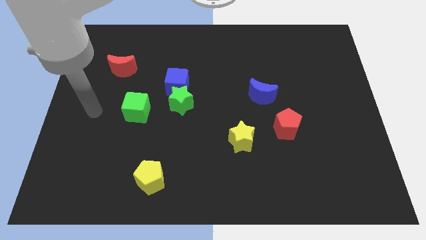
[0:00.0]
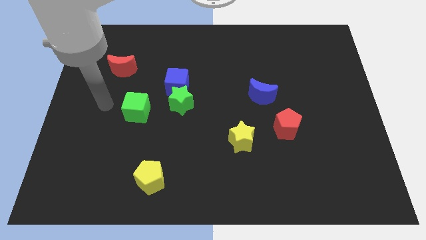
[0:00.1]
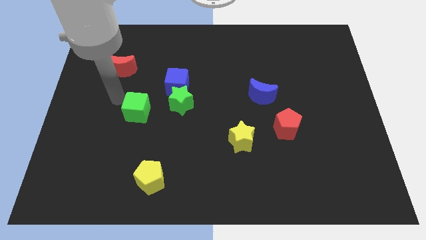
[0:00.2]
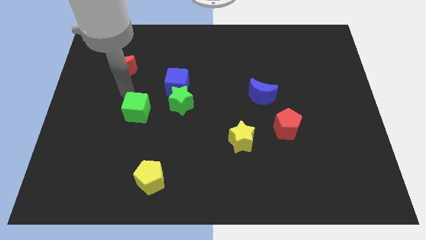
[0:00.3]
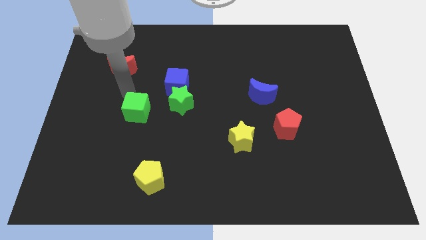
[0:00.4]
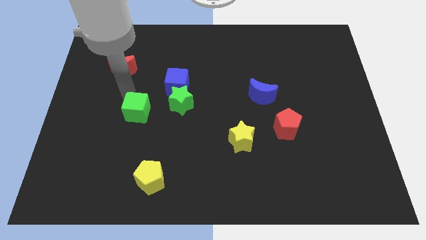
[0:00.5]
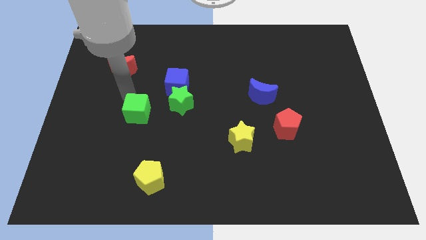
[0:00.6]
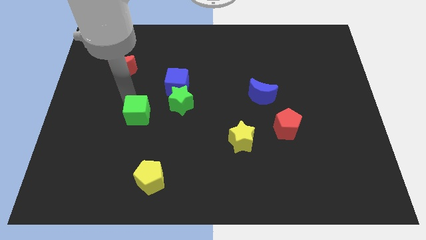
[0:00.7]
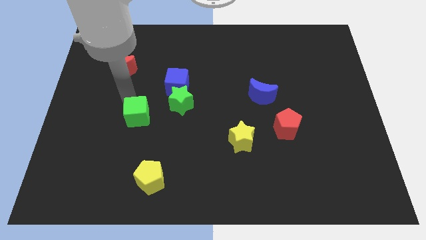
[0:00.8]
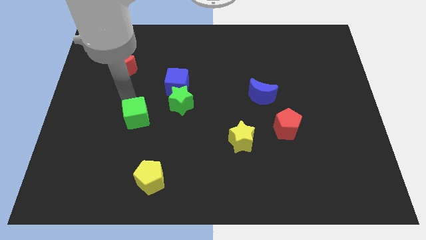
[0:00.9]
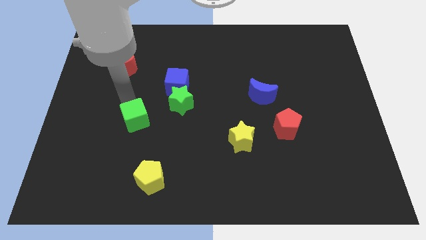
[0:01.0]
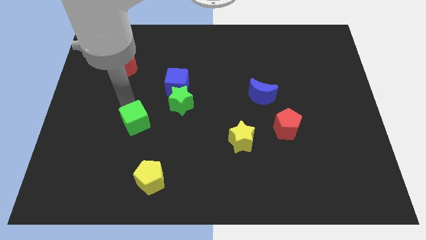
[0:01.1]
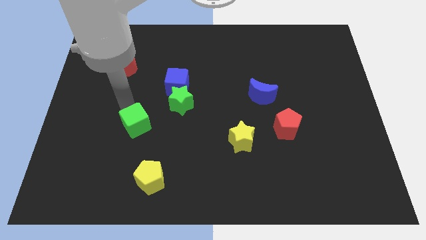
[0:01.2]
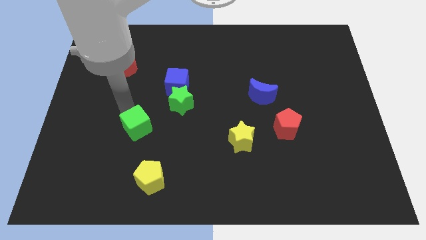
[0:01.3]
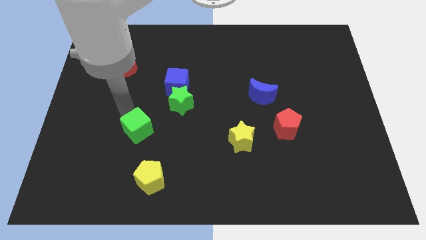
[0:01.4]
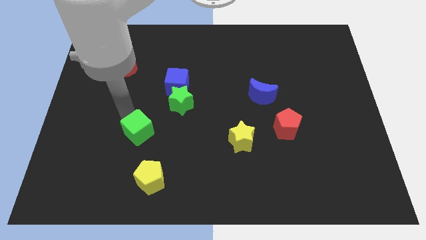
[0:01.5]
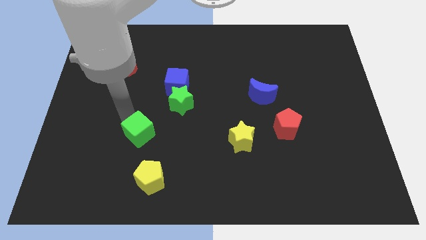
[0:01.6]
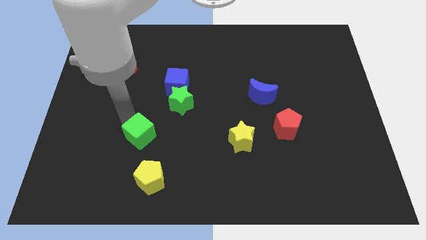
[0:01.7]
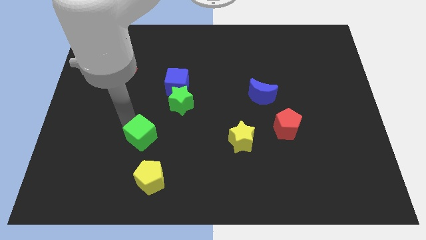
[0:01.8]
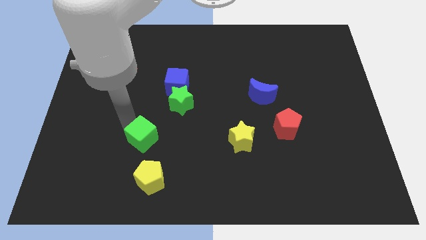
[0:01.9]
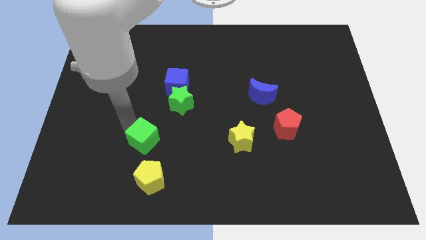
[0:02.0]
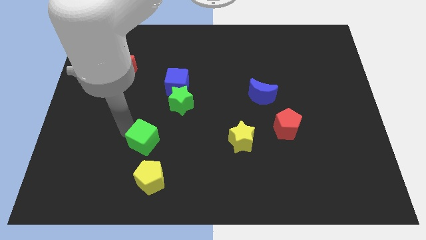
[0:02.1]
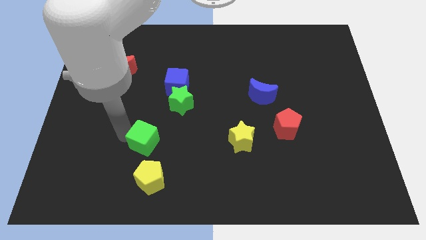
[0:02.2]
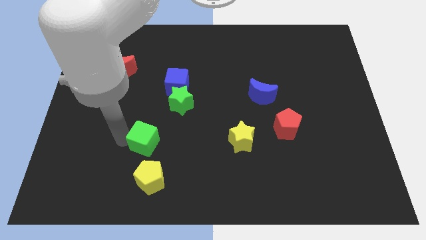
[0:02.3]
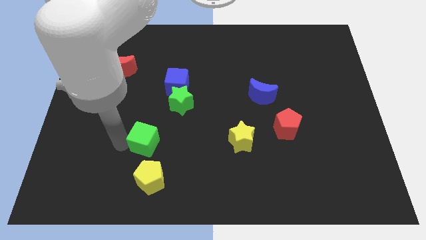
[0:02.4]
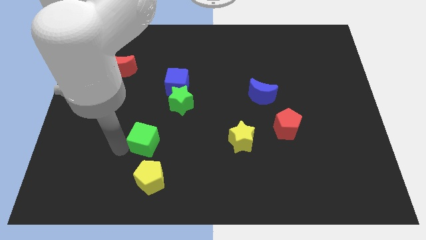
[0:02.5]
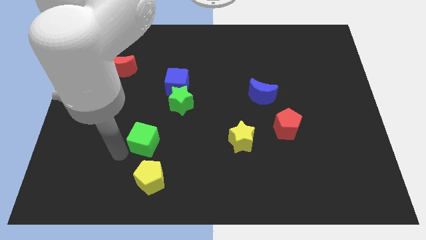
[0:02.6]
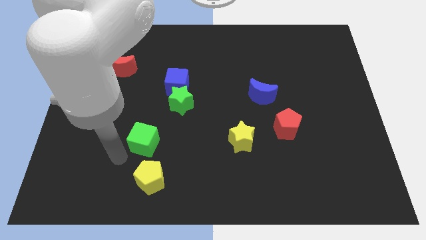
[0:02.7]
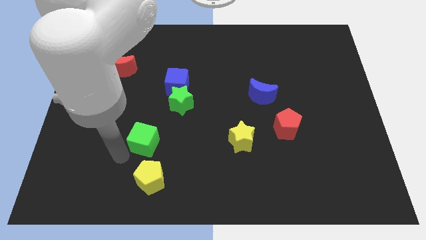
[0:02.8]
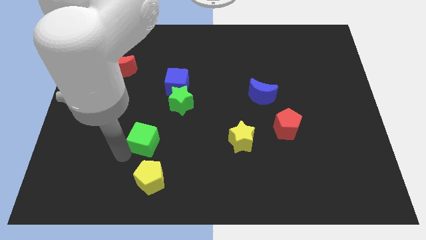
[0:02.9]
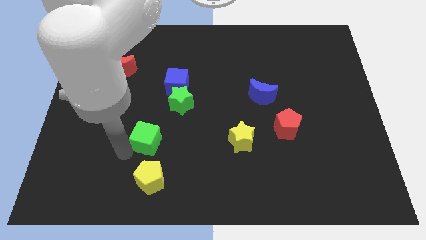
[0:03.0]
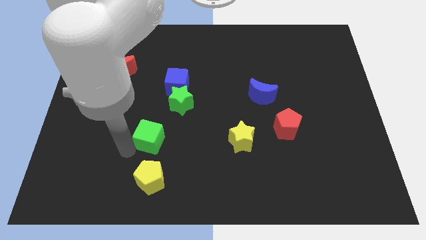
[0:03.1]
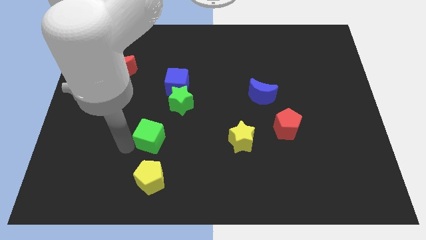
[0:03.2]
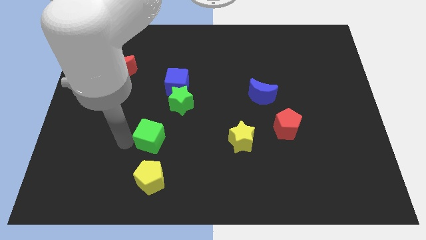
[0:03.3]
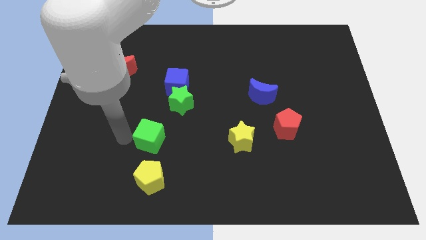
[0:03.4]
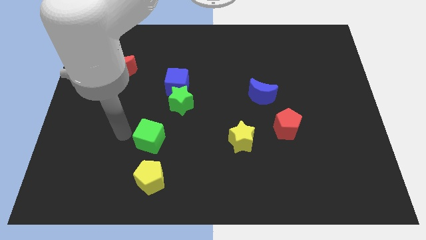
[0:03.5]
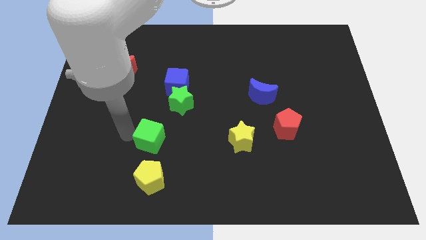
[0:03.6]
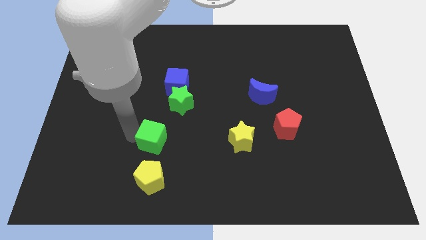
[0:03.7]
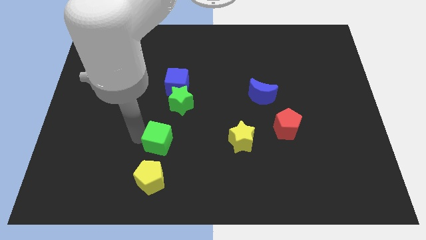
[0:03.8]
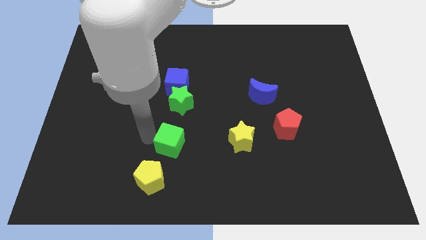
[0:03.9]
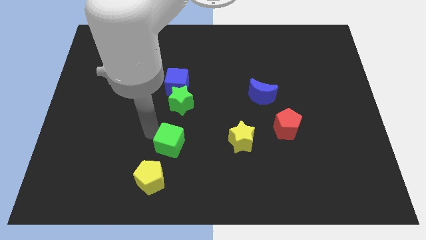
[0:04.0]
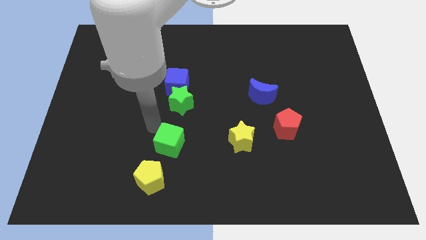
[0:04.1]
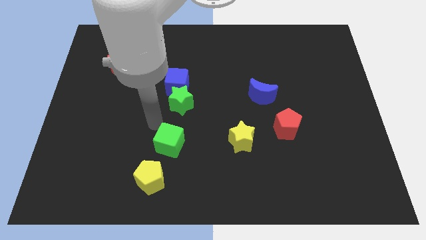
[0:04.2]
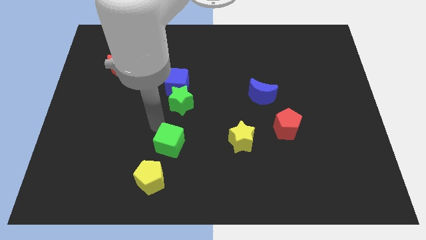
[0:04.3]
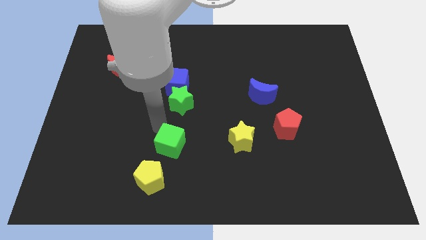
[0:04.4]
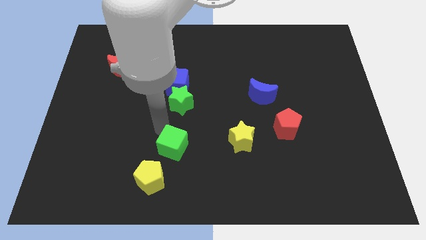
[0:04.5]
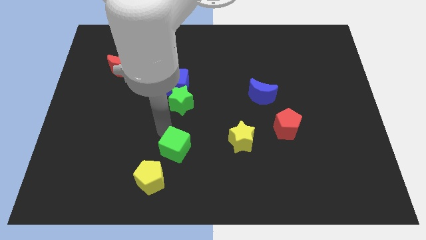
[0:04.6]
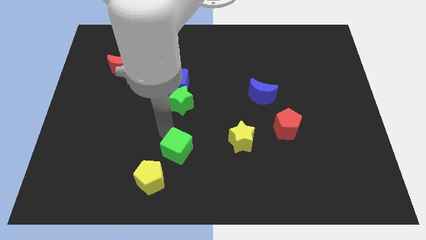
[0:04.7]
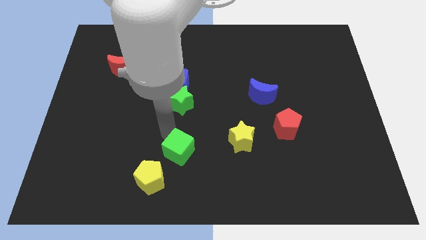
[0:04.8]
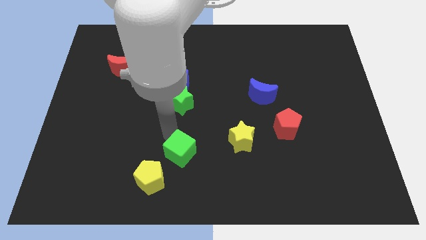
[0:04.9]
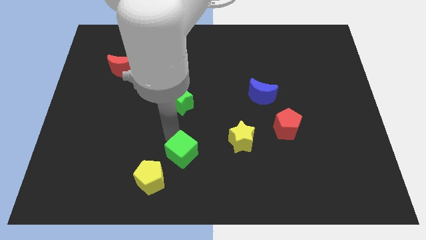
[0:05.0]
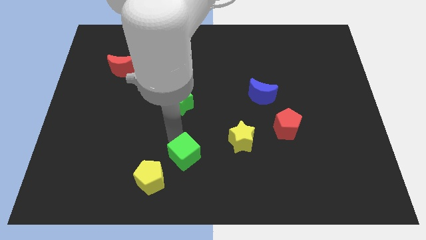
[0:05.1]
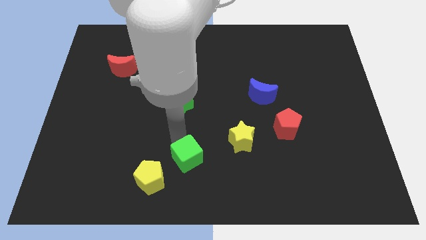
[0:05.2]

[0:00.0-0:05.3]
slide the green cube to the bottom side

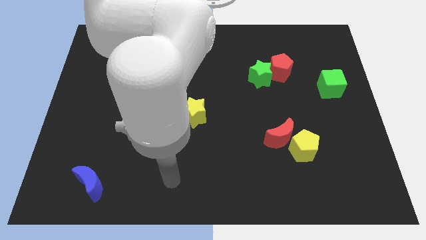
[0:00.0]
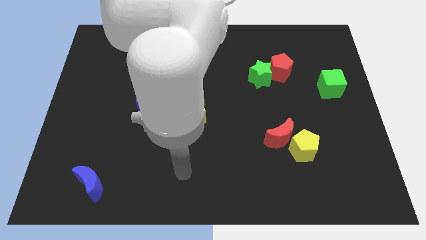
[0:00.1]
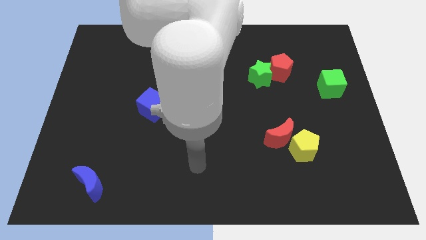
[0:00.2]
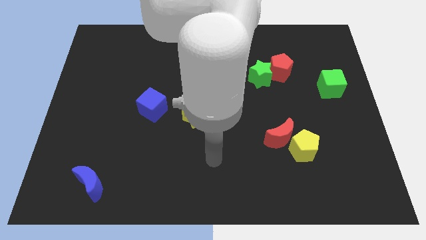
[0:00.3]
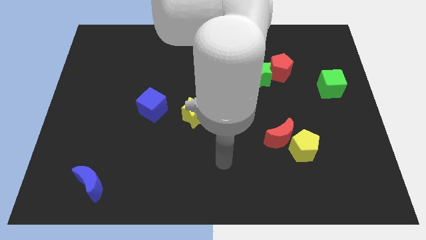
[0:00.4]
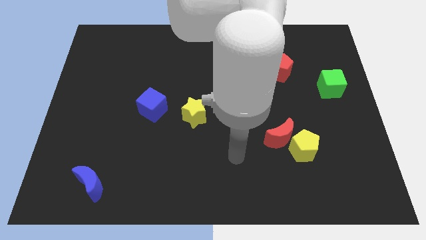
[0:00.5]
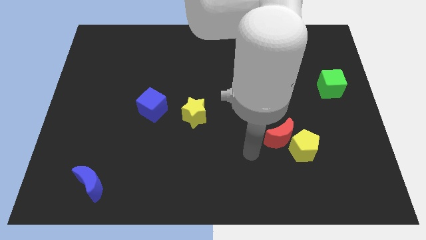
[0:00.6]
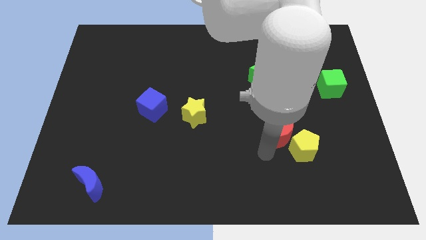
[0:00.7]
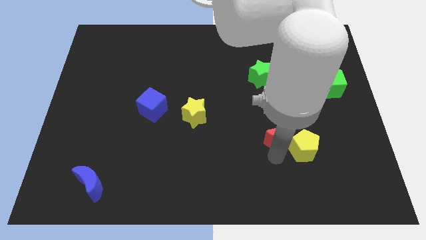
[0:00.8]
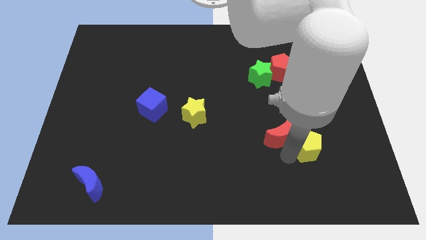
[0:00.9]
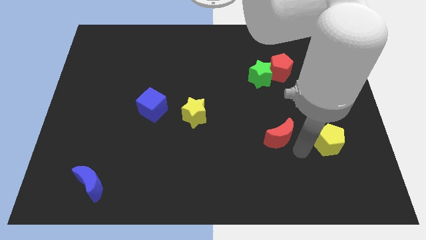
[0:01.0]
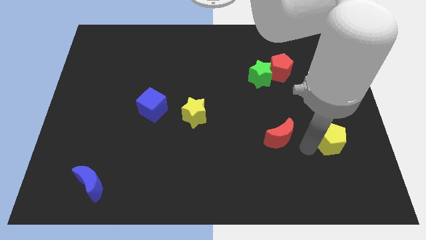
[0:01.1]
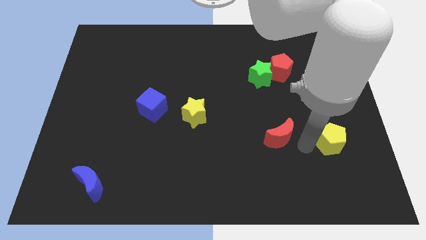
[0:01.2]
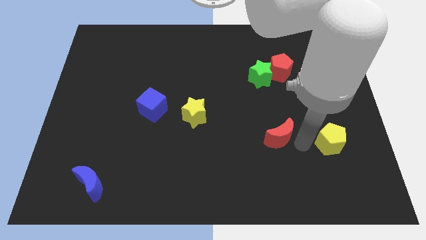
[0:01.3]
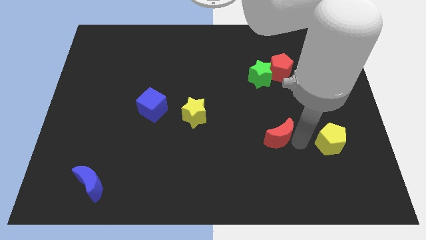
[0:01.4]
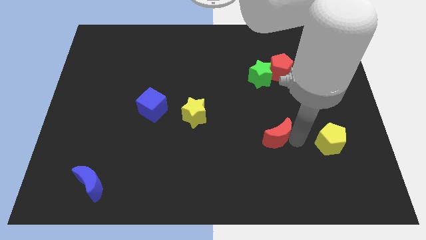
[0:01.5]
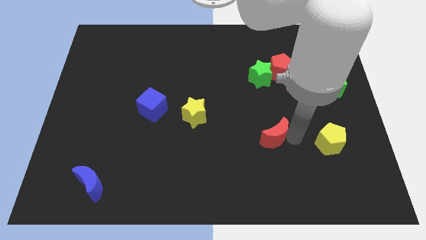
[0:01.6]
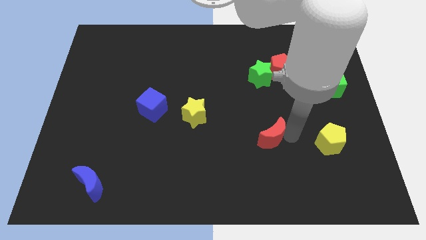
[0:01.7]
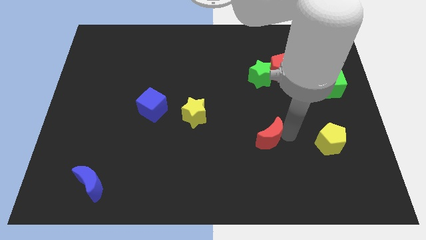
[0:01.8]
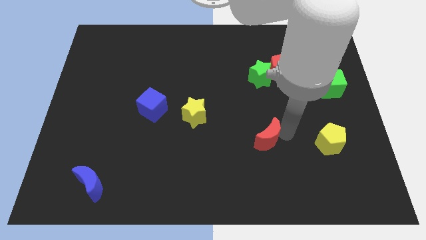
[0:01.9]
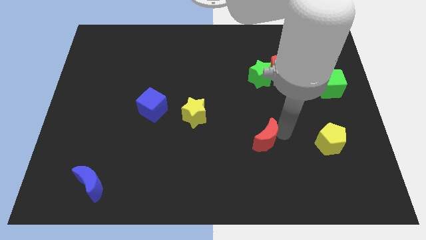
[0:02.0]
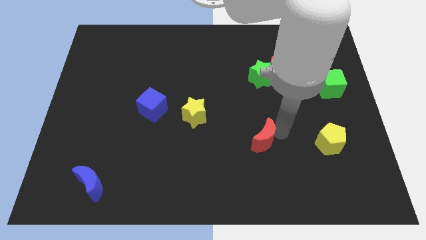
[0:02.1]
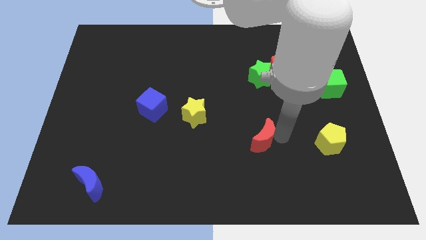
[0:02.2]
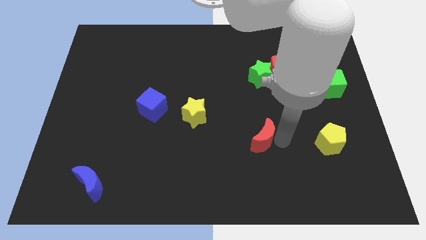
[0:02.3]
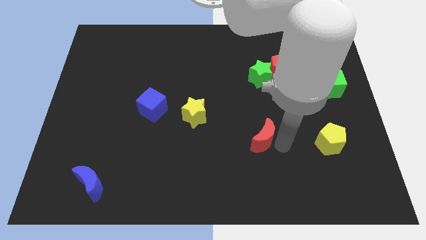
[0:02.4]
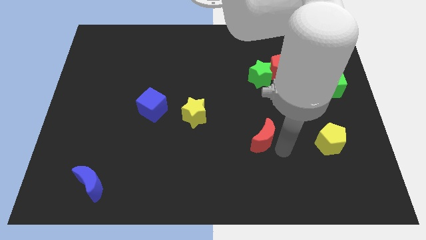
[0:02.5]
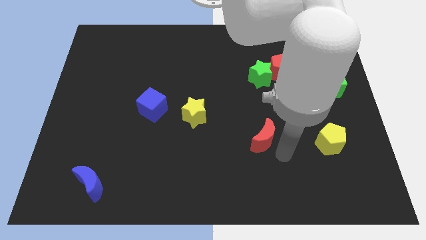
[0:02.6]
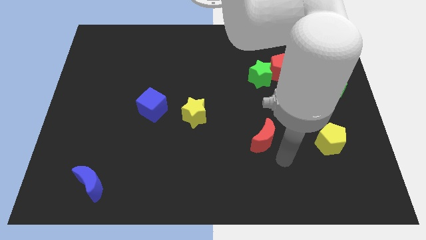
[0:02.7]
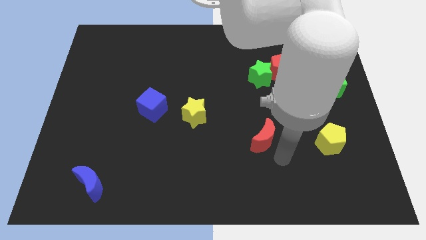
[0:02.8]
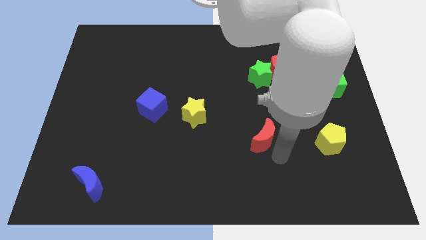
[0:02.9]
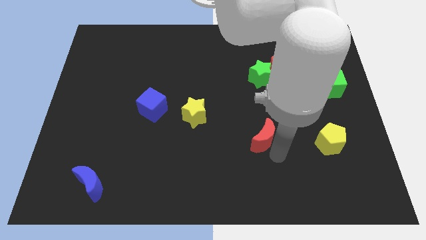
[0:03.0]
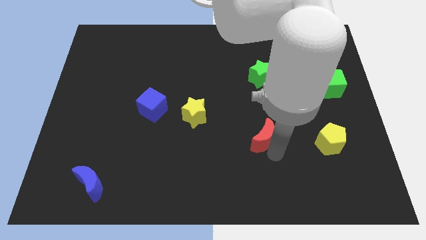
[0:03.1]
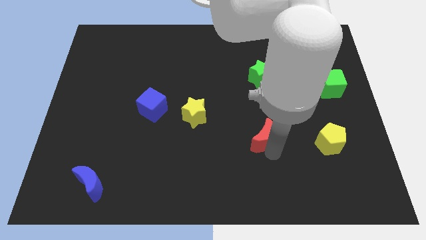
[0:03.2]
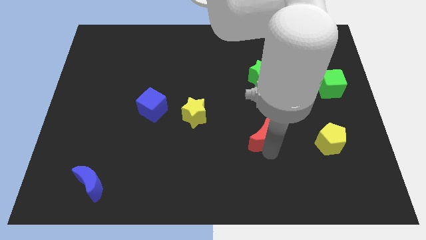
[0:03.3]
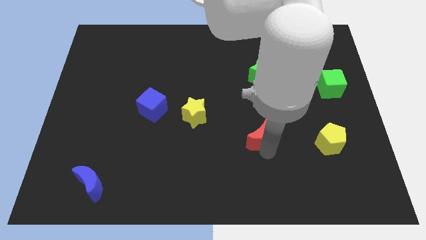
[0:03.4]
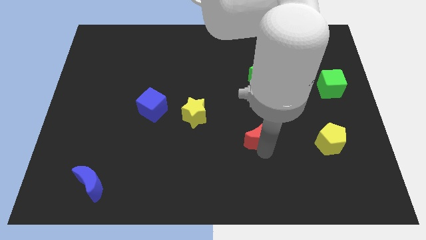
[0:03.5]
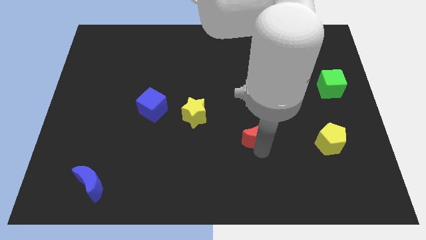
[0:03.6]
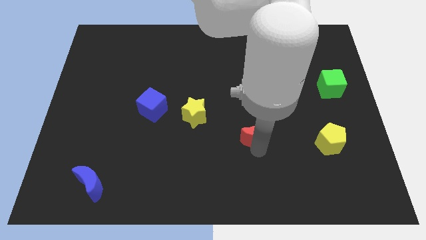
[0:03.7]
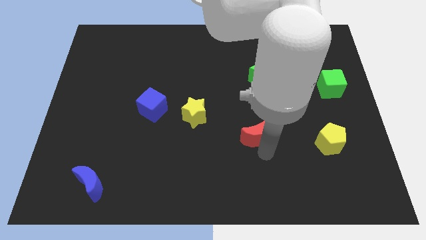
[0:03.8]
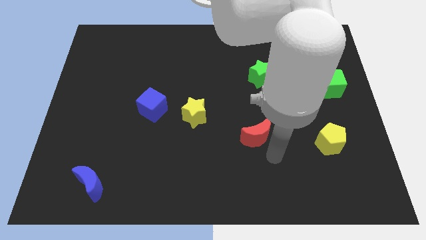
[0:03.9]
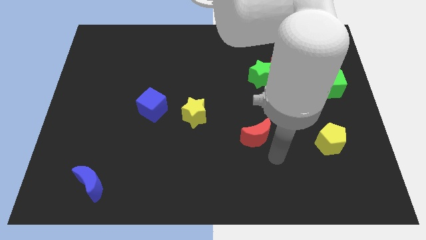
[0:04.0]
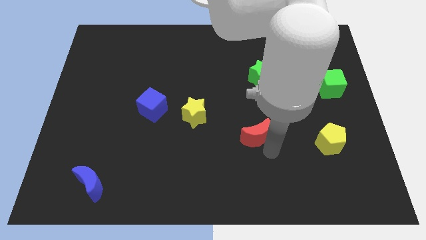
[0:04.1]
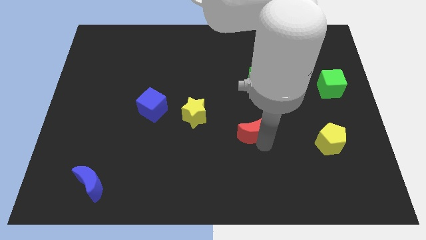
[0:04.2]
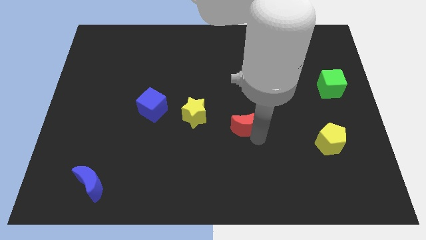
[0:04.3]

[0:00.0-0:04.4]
move the red moon to the center
